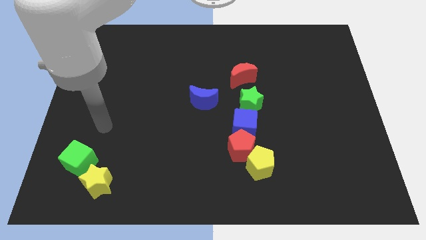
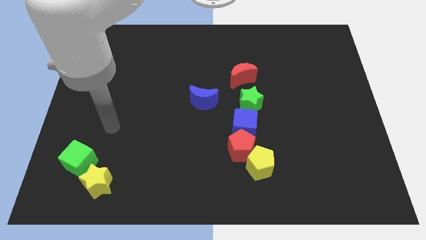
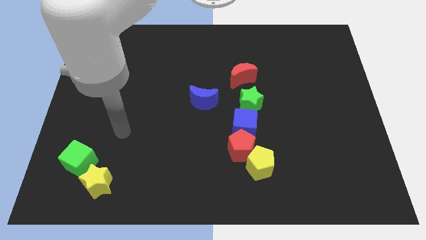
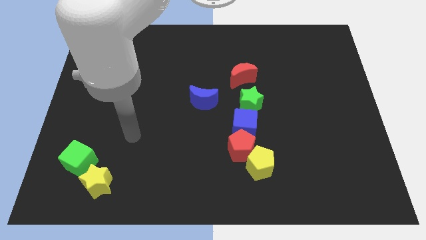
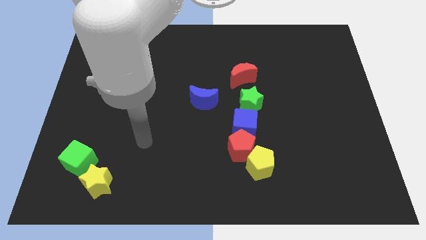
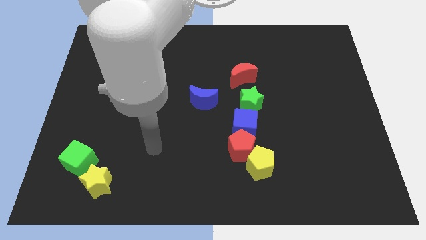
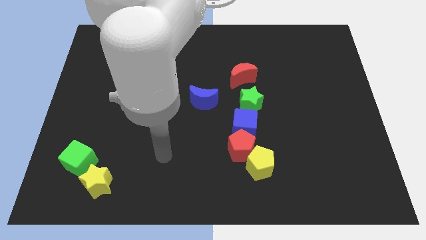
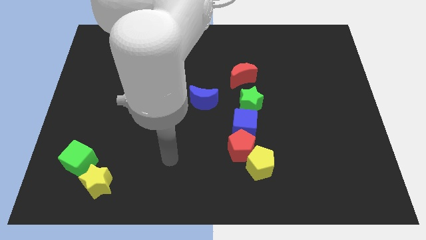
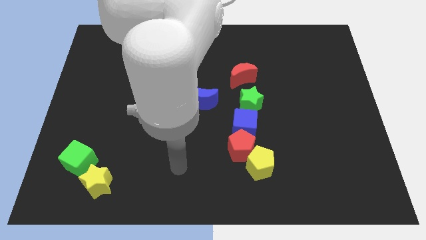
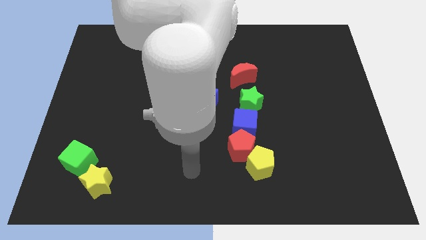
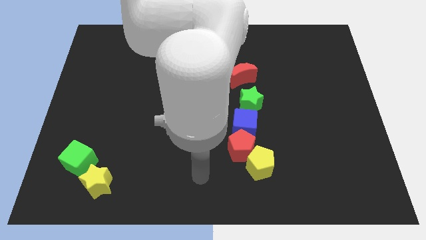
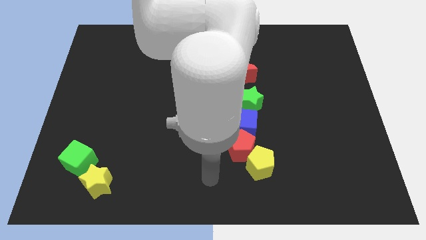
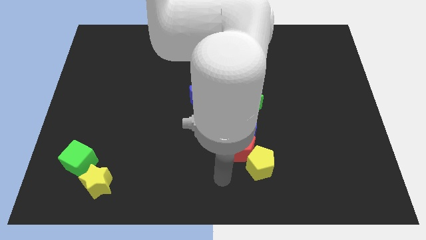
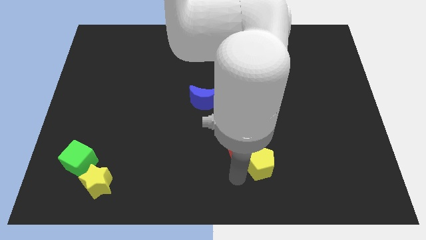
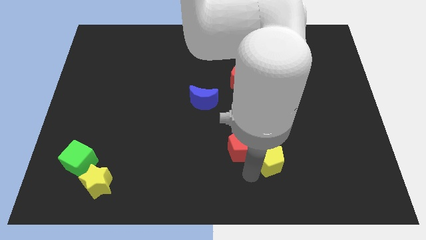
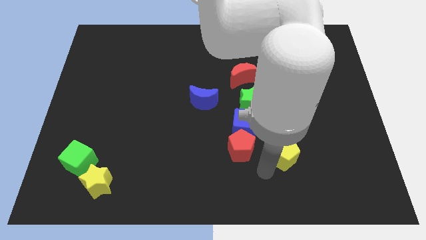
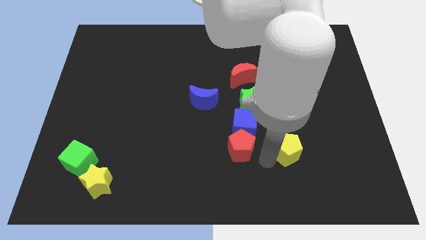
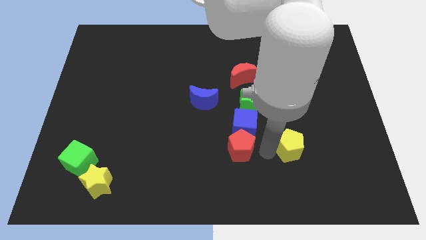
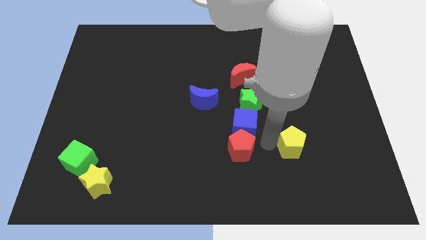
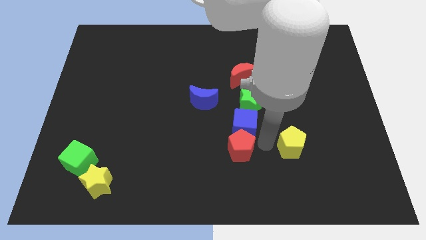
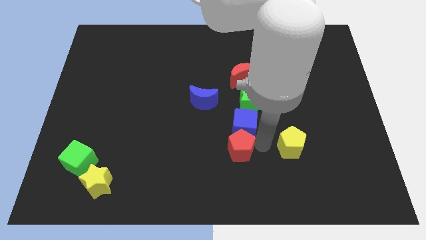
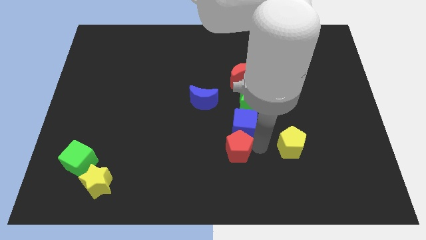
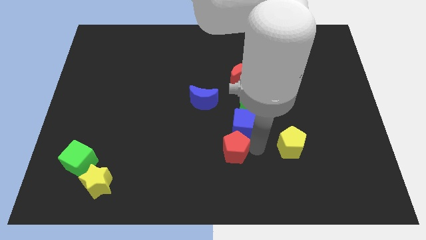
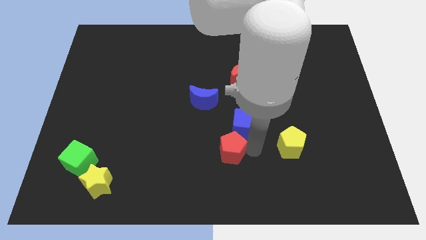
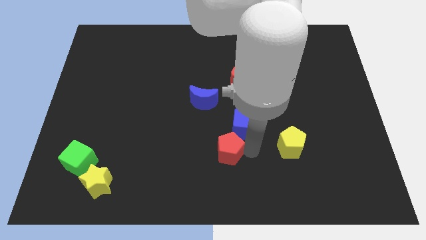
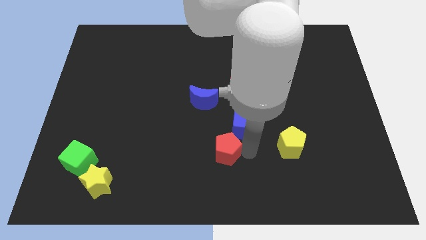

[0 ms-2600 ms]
pull the red pentagon apart from the blue cube and yellow pentagon

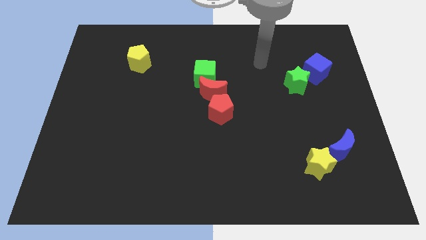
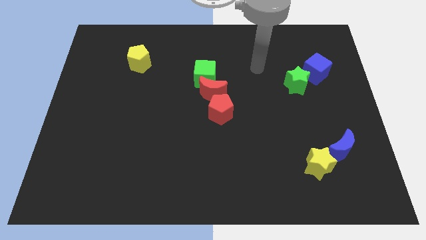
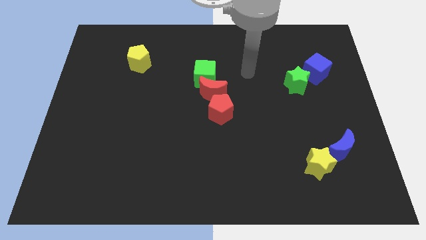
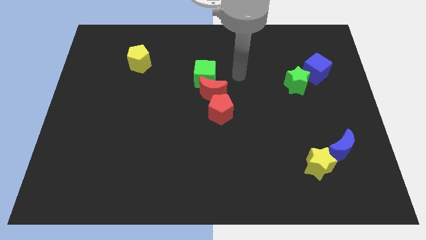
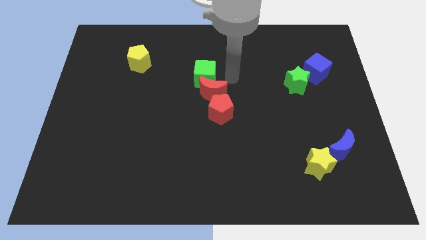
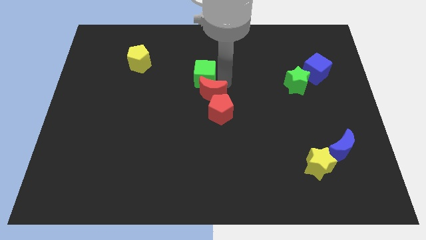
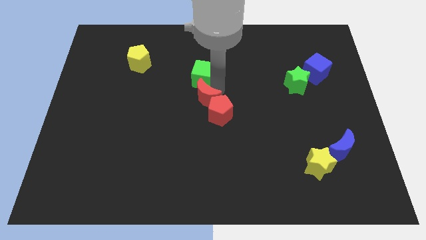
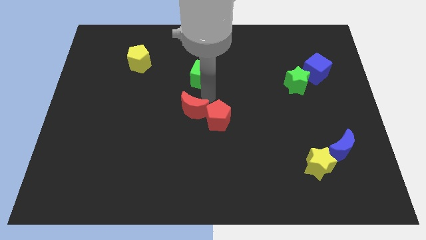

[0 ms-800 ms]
separate the green cube from the red moon

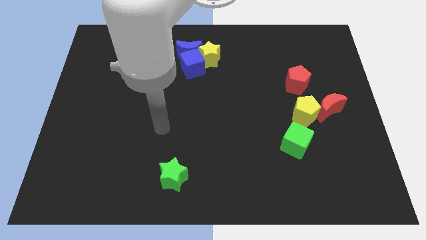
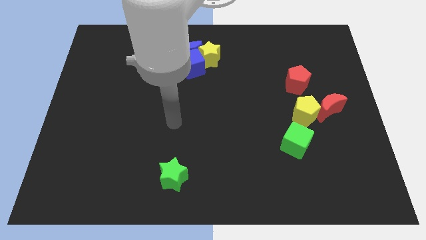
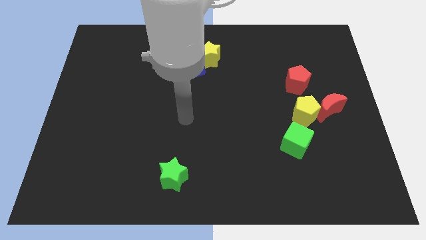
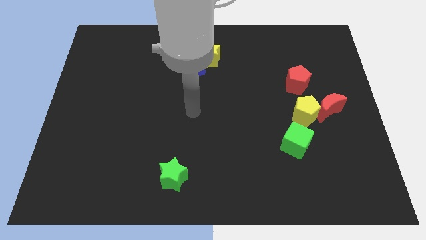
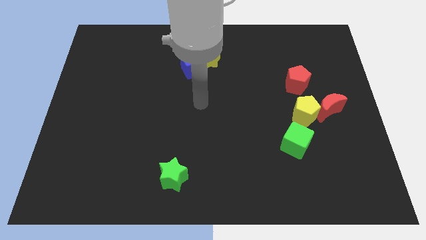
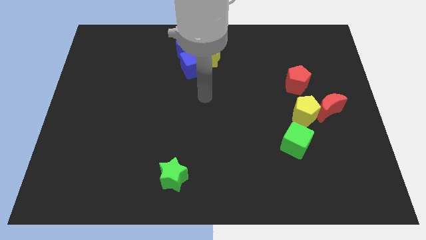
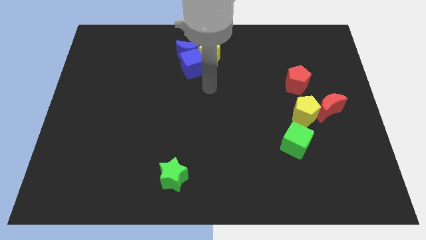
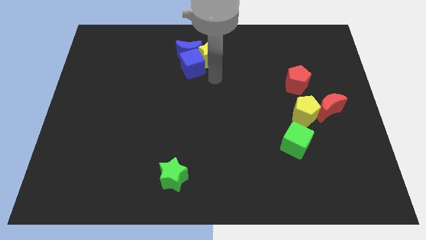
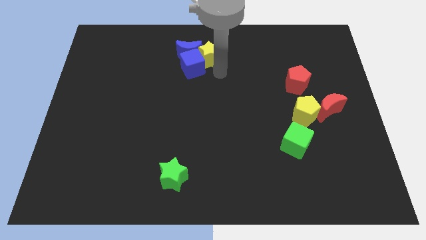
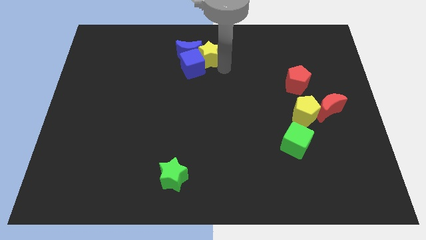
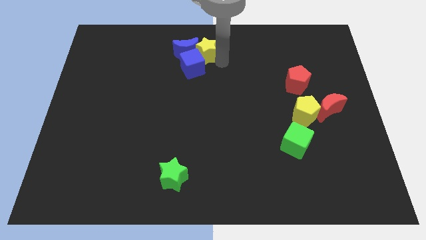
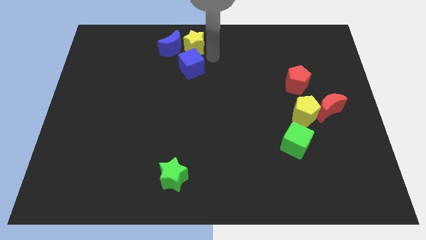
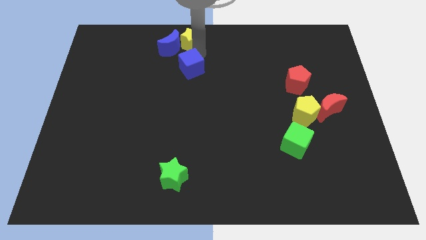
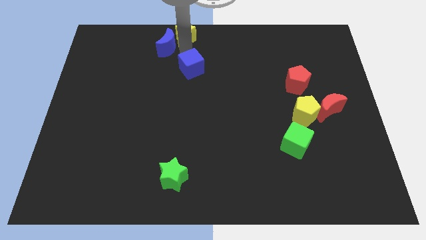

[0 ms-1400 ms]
move the blue cube away from the blue moon and yellow star

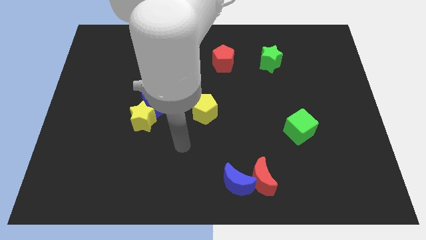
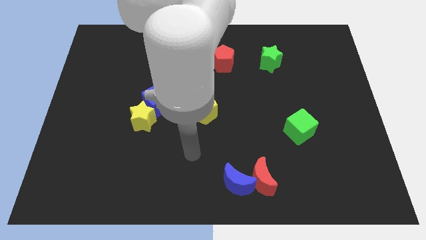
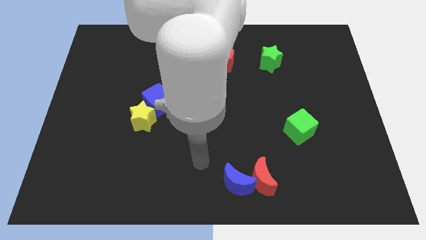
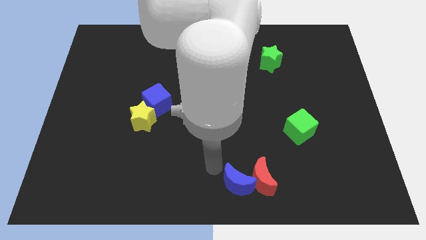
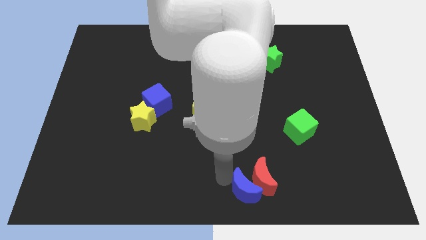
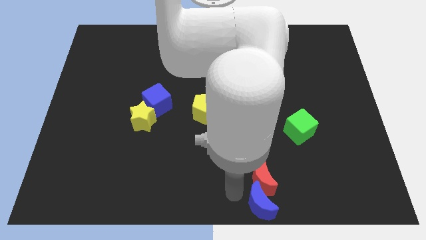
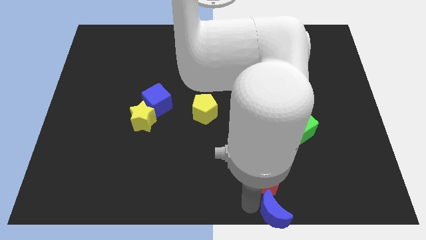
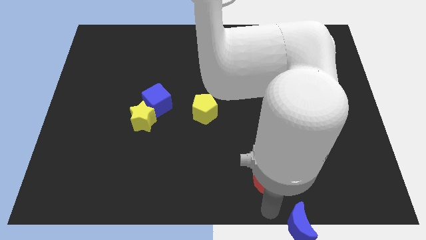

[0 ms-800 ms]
pull the red moon apart from the blue moon

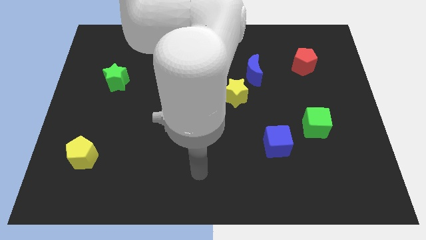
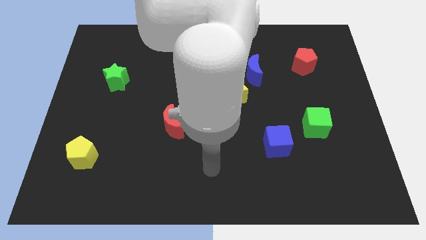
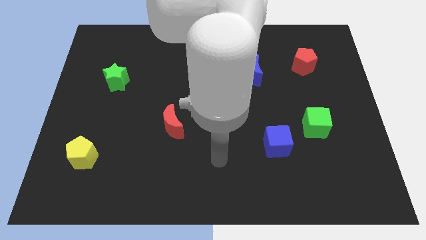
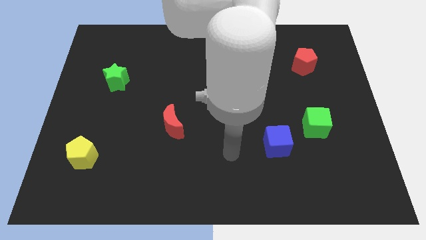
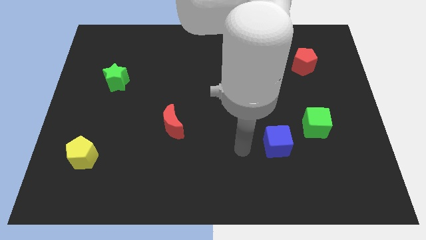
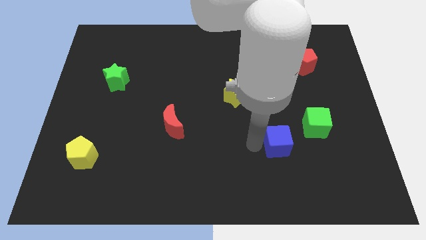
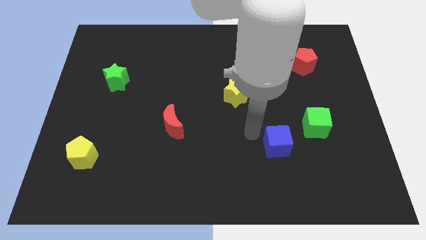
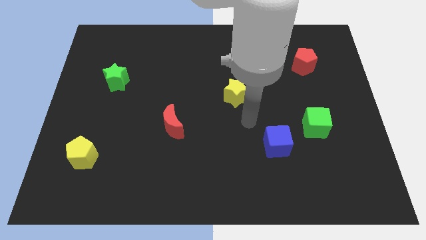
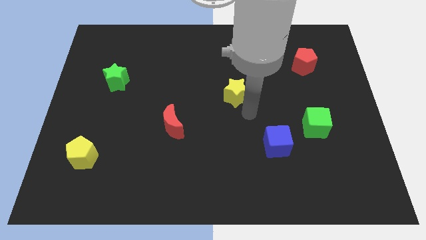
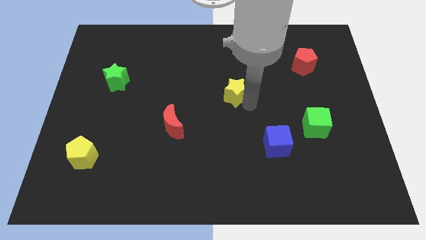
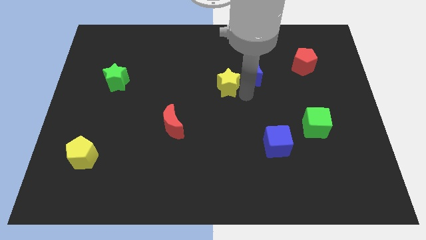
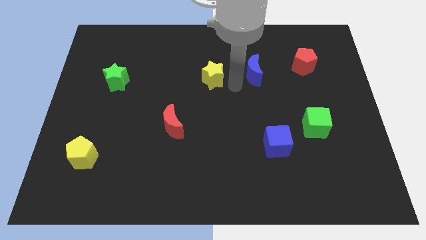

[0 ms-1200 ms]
pull the blue moon apart from the yellow star

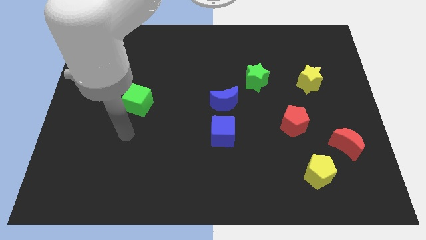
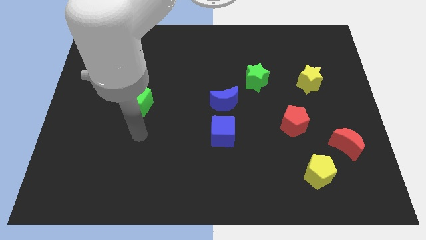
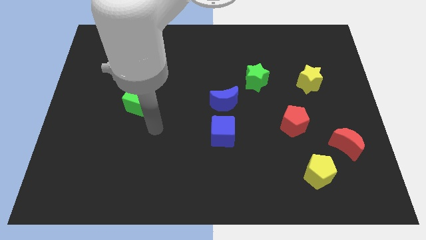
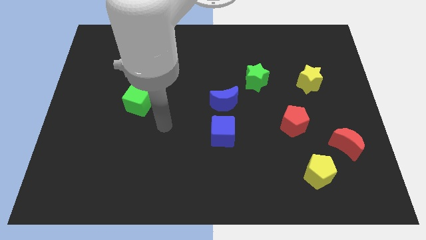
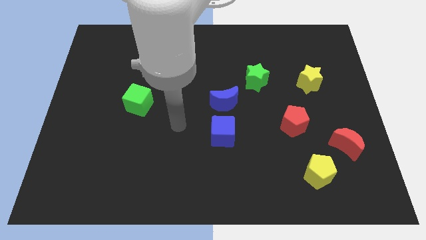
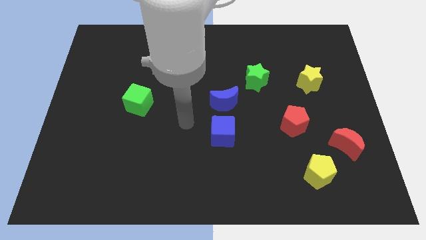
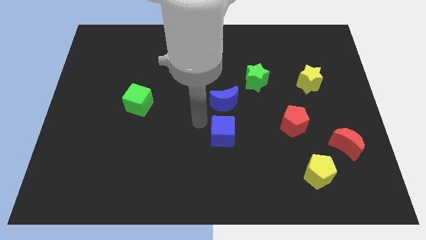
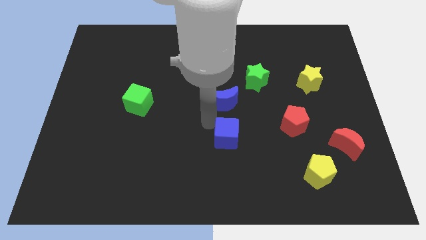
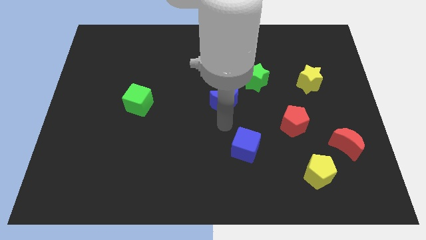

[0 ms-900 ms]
pull the blue moon apart from the blue cube

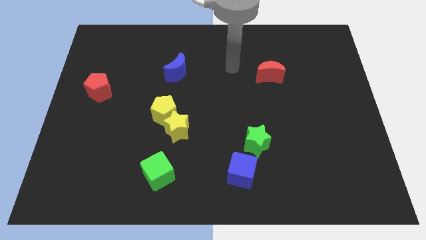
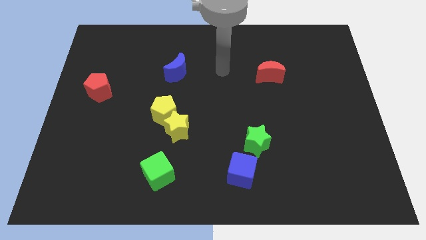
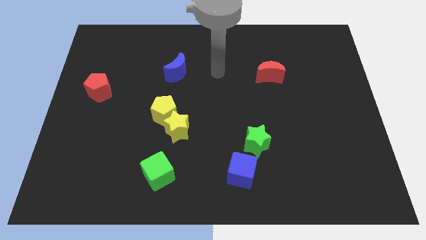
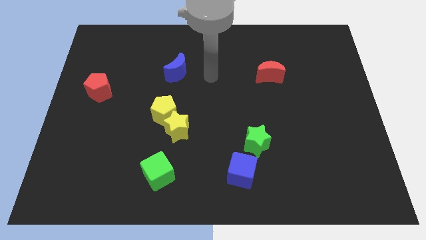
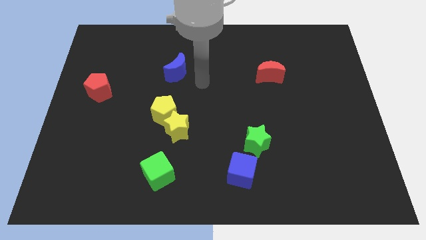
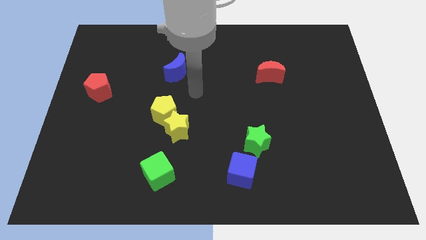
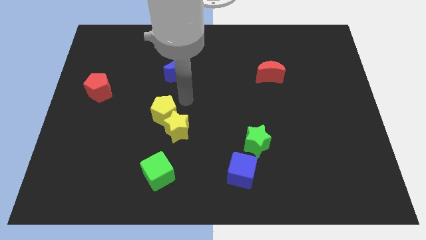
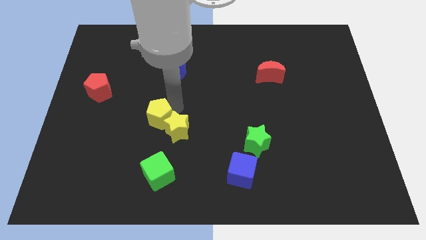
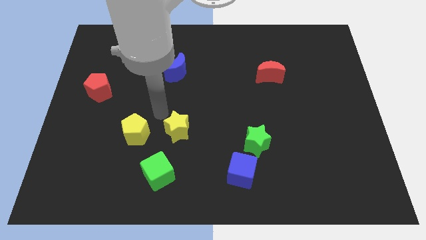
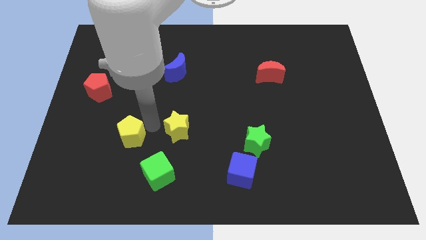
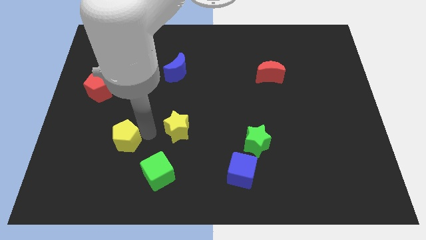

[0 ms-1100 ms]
move the yellow star away from the yellow pentagon

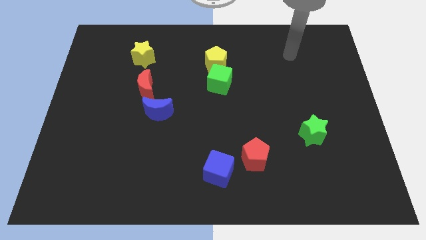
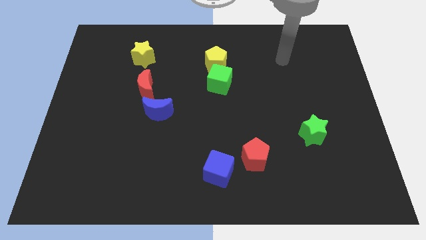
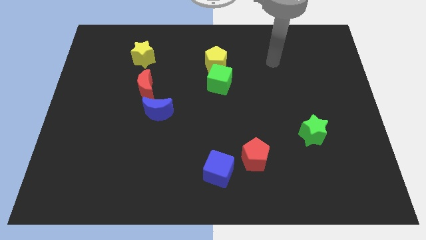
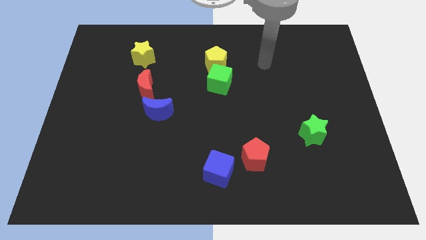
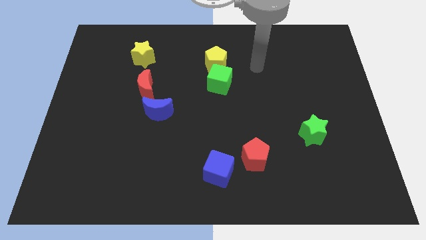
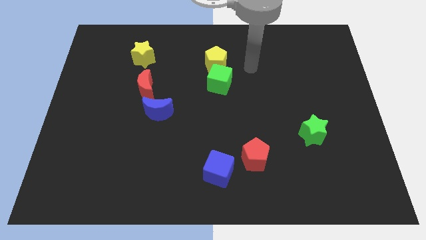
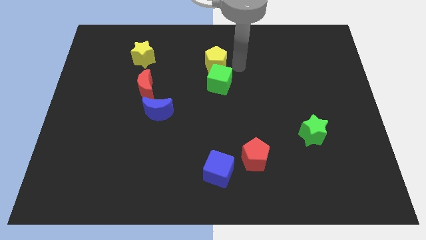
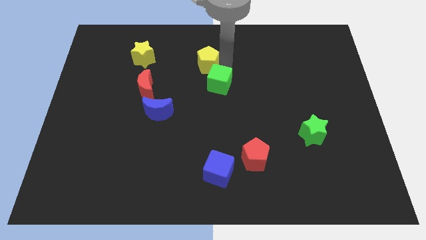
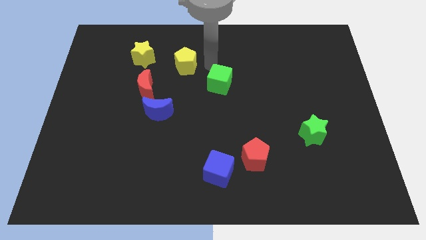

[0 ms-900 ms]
pull the green cube apart from the yellow pentagon
